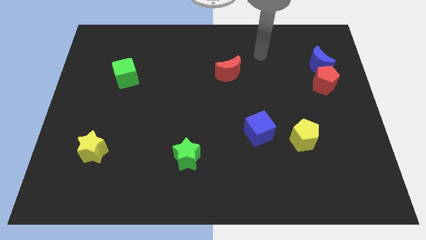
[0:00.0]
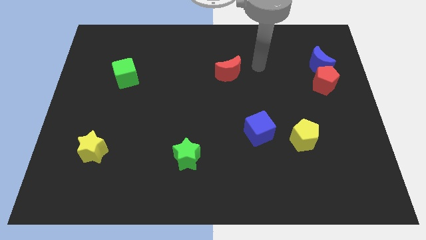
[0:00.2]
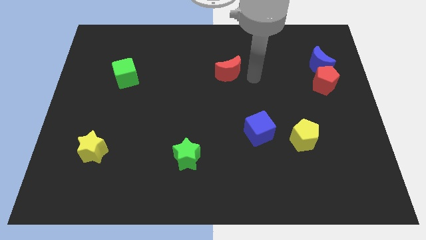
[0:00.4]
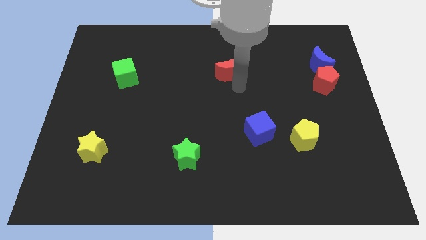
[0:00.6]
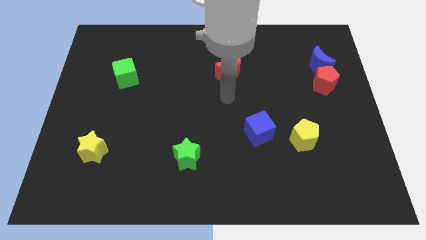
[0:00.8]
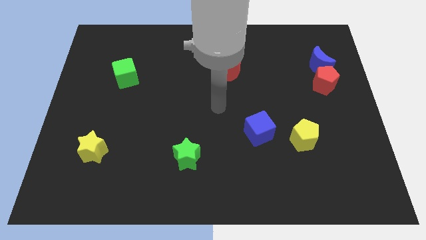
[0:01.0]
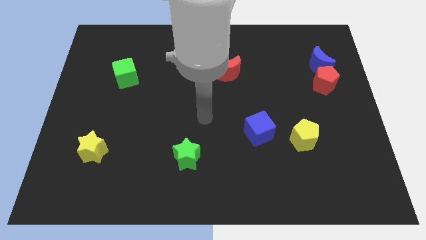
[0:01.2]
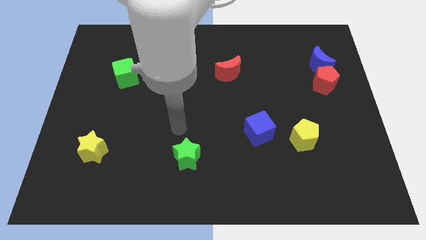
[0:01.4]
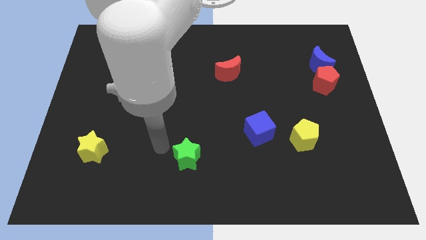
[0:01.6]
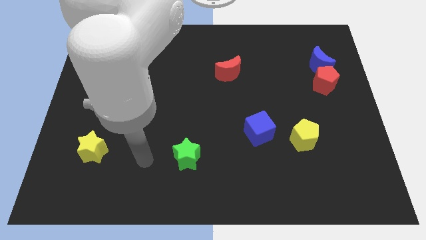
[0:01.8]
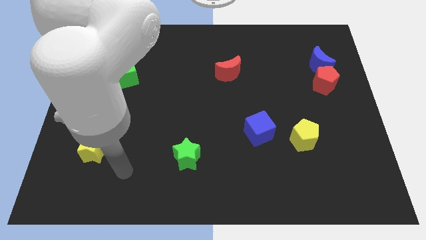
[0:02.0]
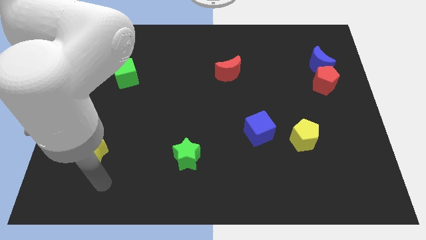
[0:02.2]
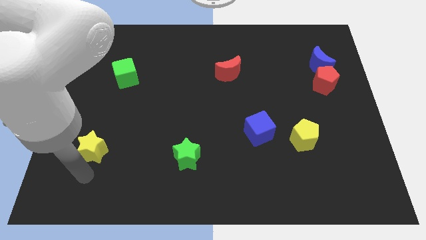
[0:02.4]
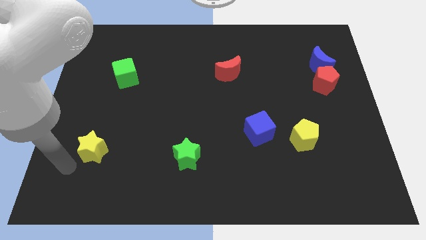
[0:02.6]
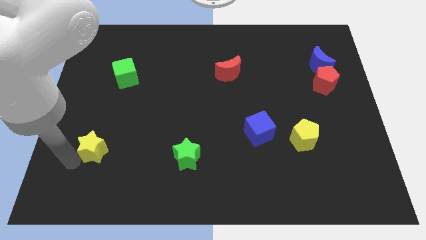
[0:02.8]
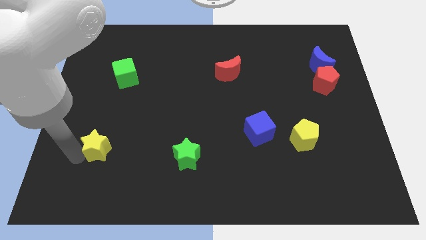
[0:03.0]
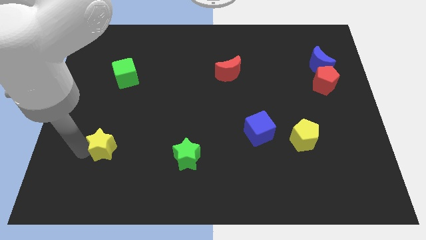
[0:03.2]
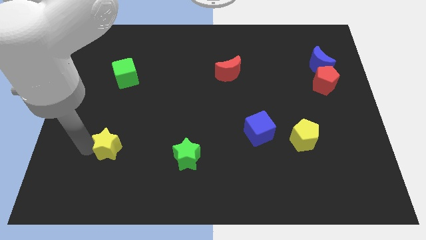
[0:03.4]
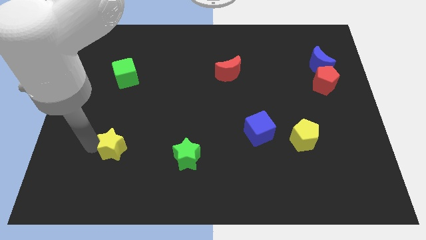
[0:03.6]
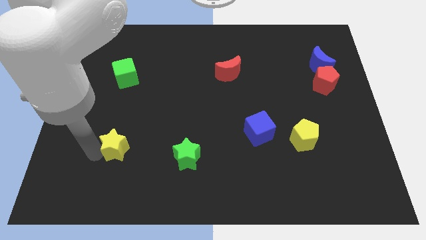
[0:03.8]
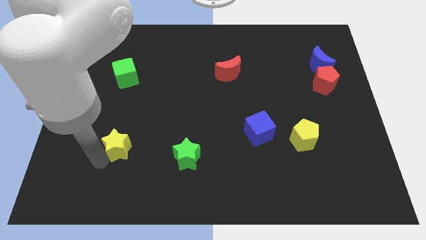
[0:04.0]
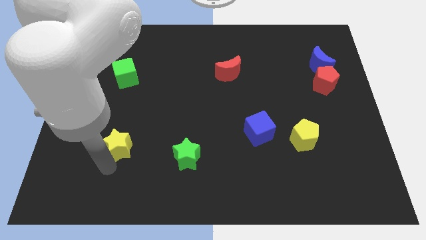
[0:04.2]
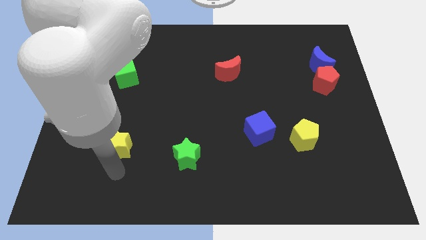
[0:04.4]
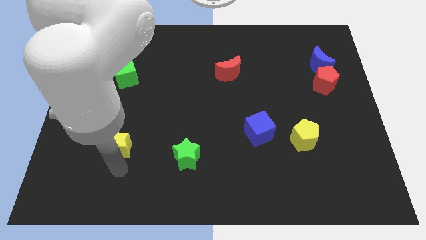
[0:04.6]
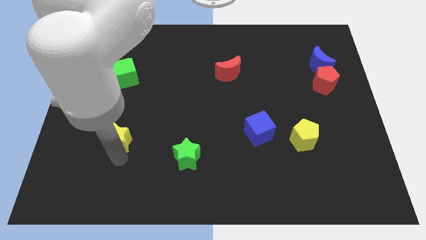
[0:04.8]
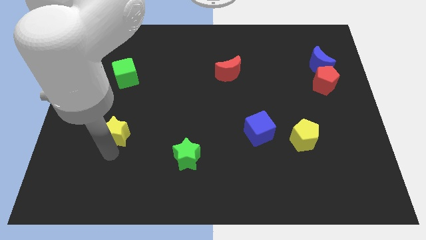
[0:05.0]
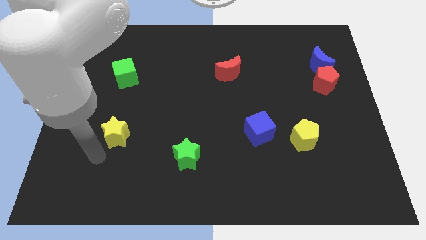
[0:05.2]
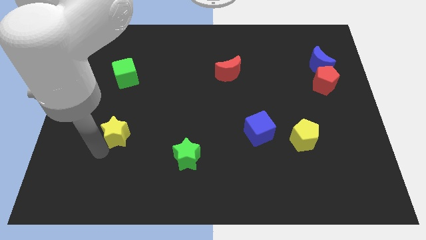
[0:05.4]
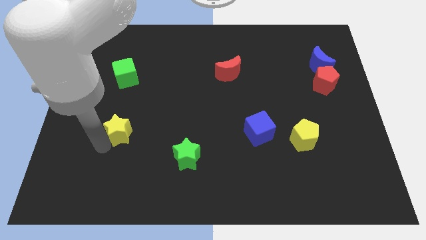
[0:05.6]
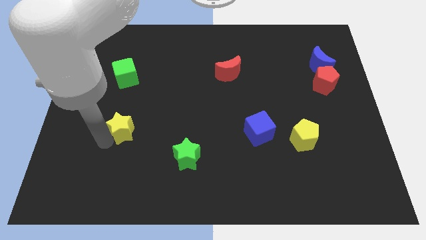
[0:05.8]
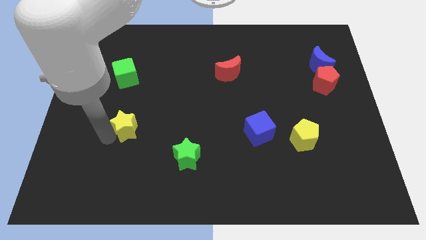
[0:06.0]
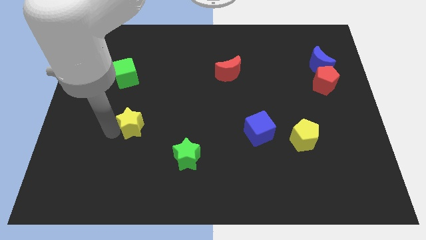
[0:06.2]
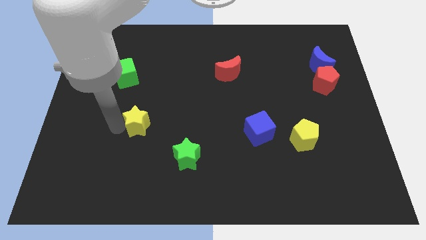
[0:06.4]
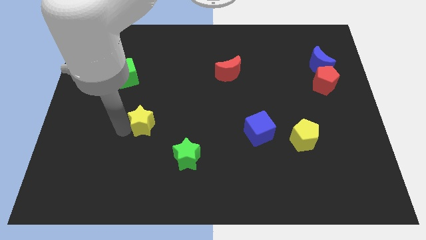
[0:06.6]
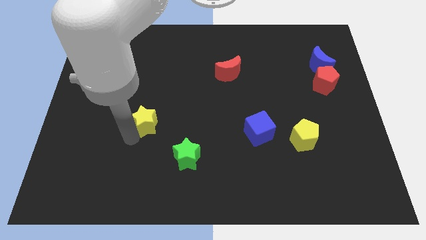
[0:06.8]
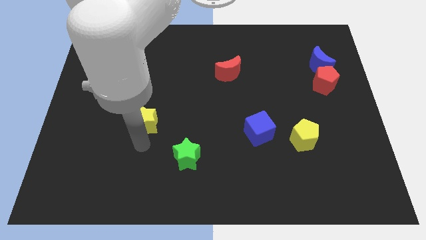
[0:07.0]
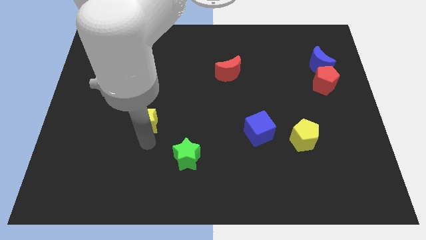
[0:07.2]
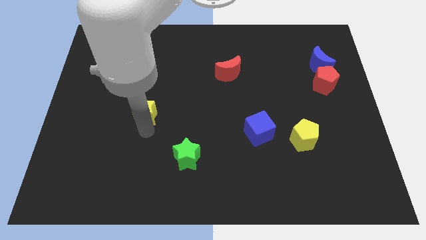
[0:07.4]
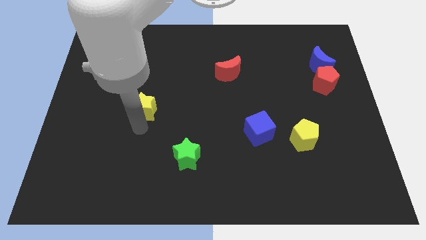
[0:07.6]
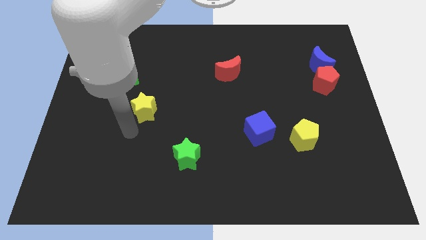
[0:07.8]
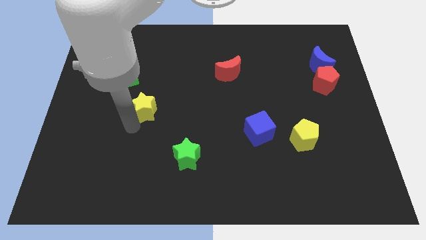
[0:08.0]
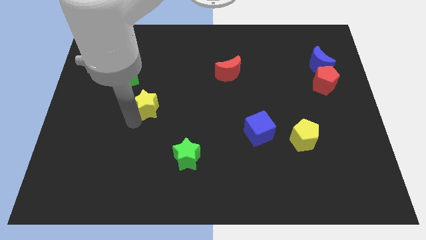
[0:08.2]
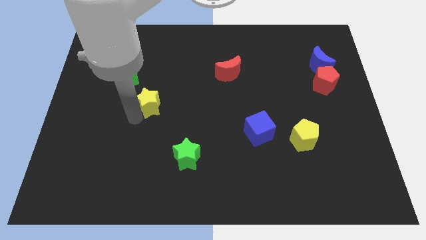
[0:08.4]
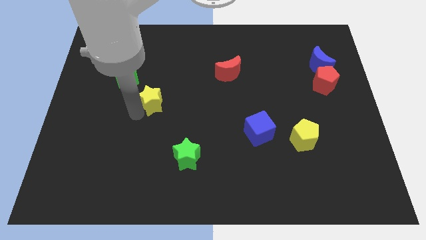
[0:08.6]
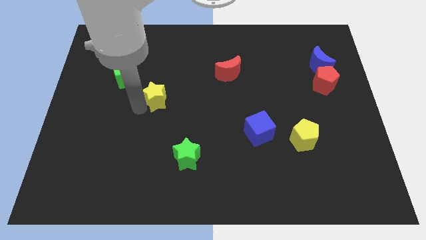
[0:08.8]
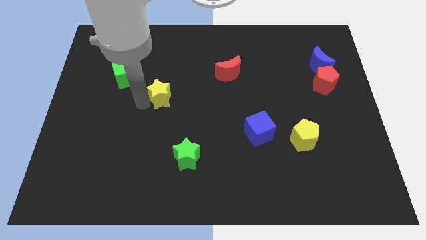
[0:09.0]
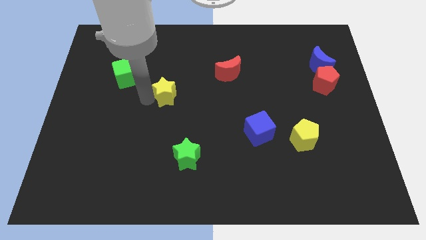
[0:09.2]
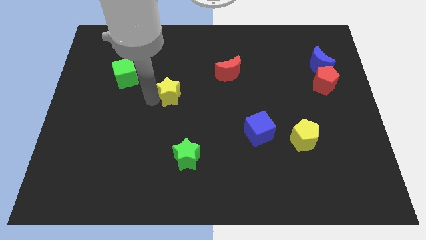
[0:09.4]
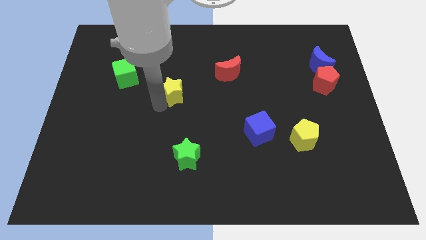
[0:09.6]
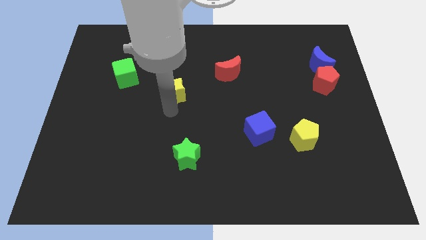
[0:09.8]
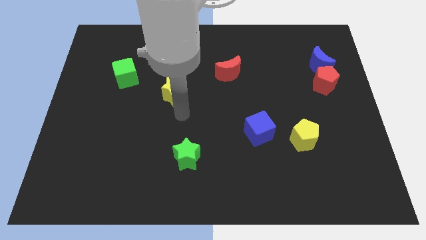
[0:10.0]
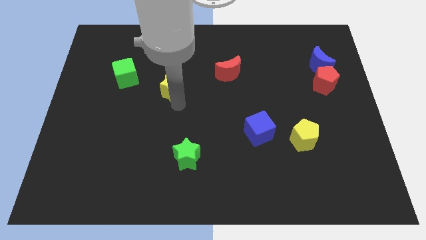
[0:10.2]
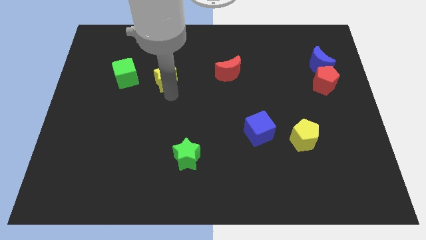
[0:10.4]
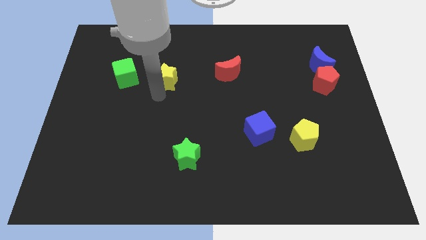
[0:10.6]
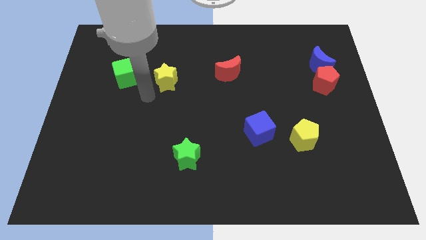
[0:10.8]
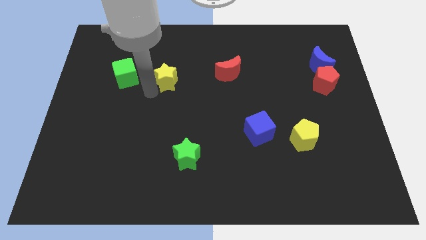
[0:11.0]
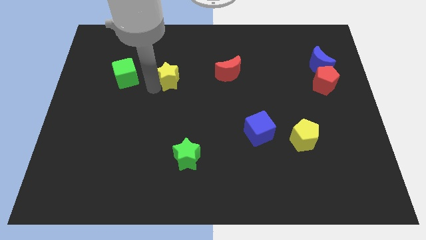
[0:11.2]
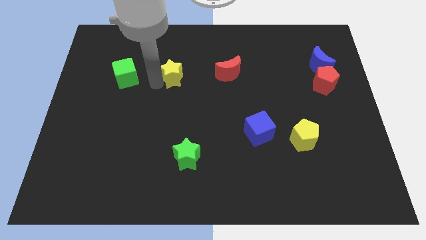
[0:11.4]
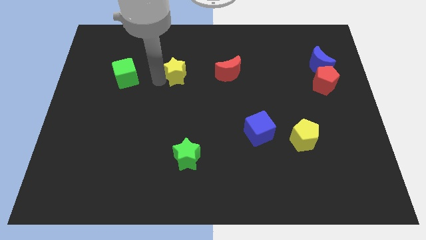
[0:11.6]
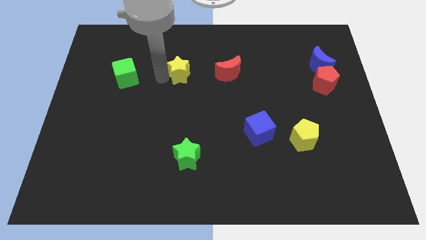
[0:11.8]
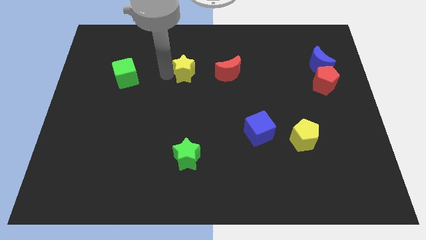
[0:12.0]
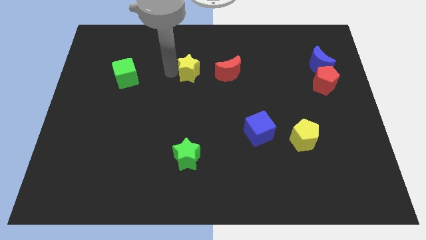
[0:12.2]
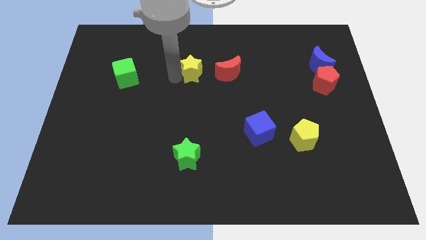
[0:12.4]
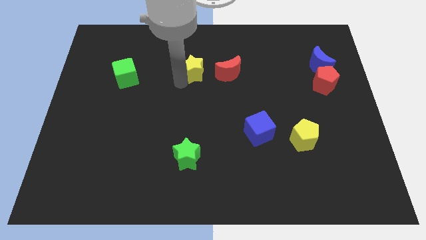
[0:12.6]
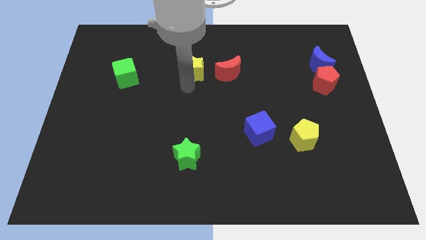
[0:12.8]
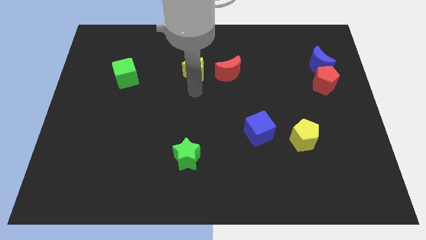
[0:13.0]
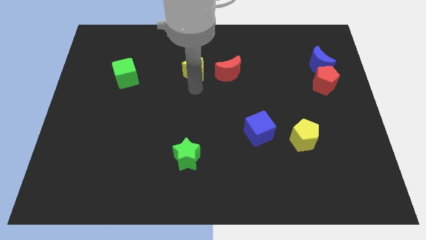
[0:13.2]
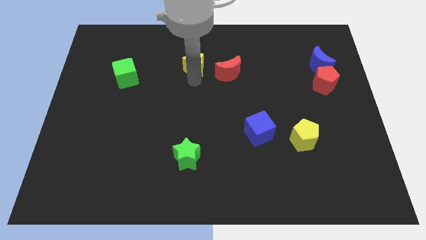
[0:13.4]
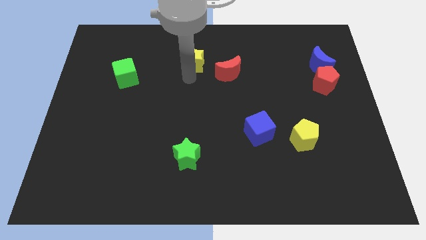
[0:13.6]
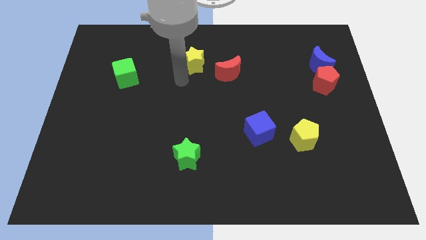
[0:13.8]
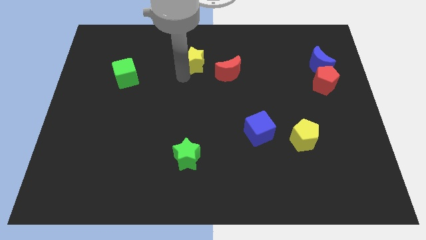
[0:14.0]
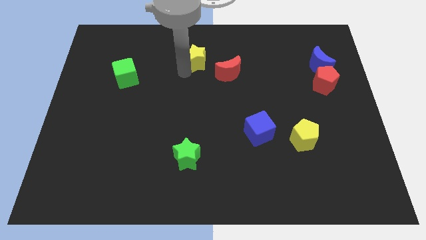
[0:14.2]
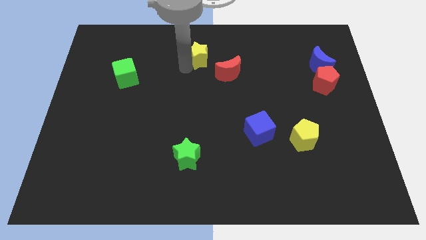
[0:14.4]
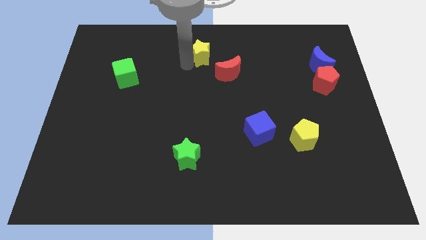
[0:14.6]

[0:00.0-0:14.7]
put the yellow star to the top side
